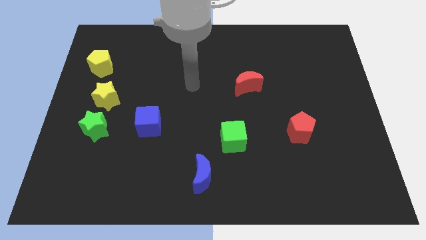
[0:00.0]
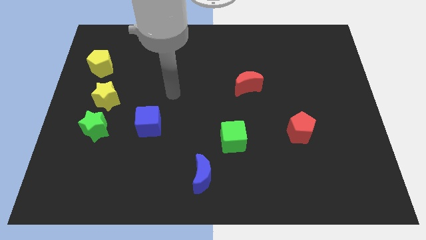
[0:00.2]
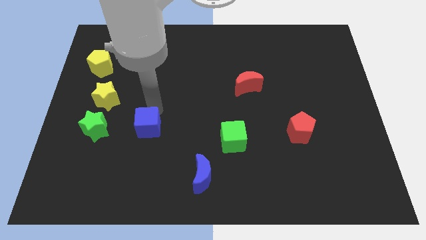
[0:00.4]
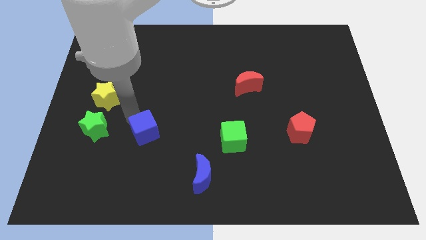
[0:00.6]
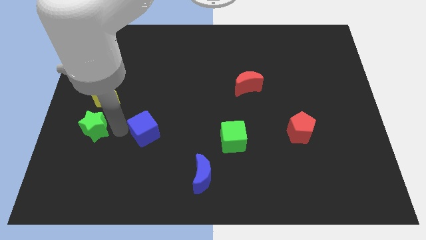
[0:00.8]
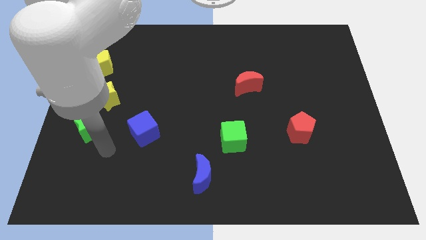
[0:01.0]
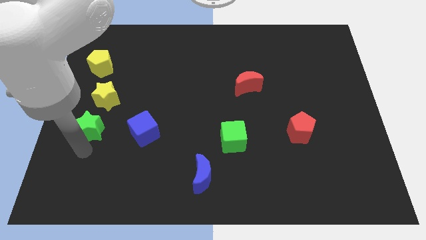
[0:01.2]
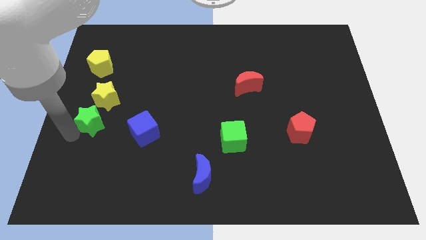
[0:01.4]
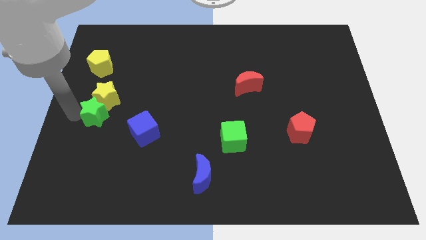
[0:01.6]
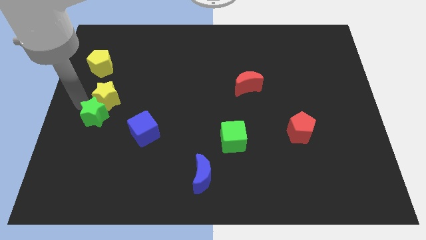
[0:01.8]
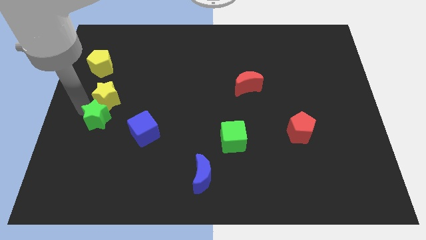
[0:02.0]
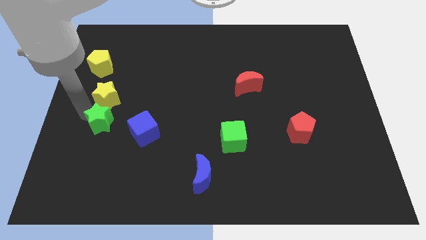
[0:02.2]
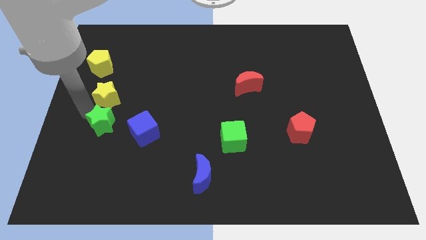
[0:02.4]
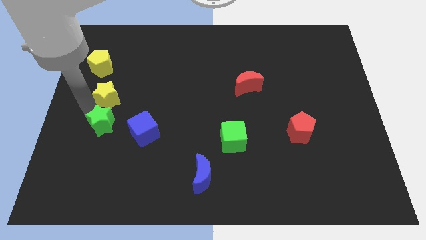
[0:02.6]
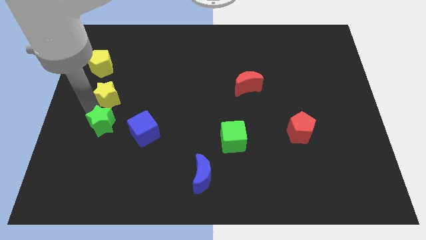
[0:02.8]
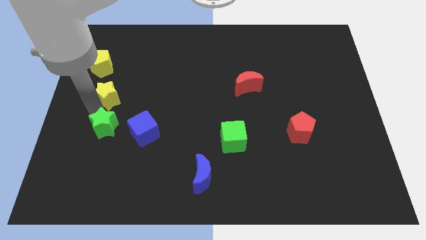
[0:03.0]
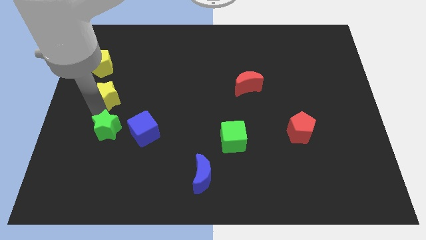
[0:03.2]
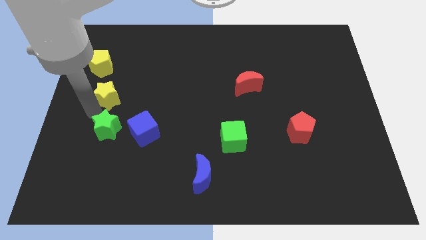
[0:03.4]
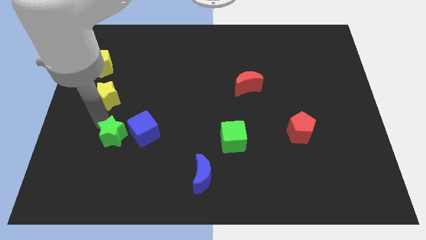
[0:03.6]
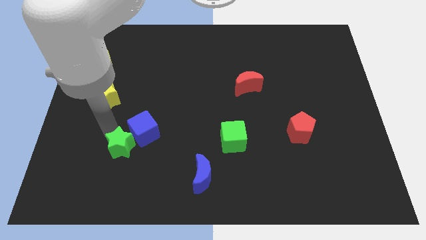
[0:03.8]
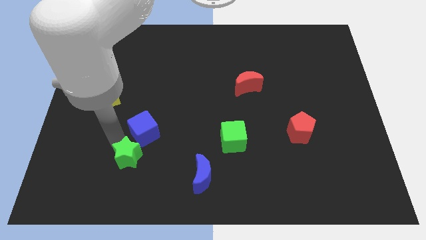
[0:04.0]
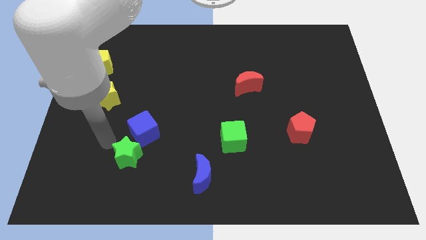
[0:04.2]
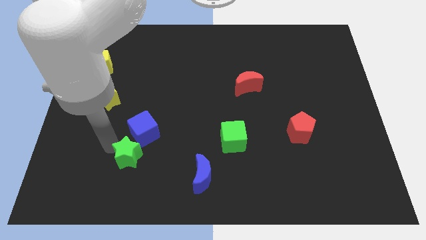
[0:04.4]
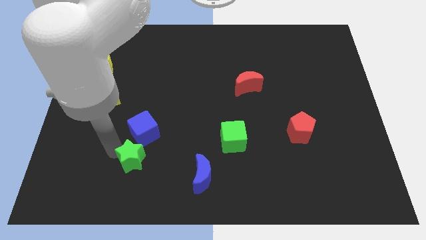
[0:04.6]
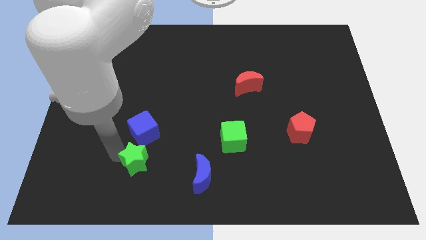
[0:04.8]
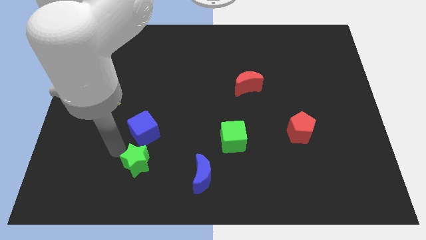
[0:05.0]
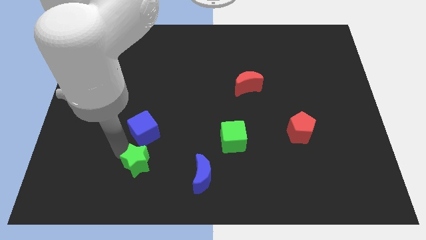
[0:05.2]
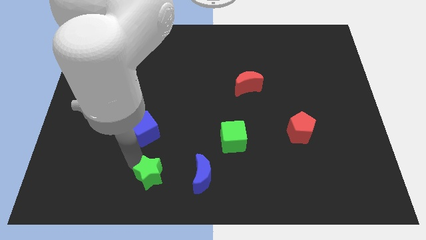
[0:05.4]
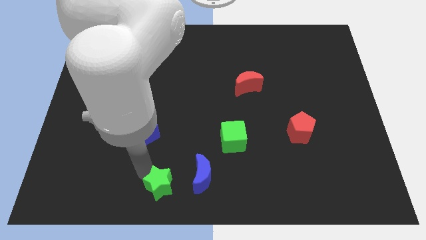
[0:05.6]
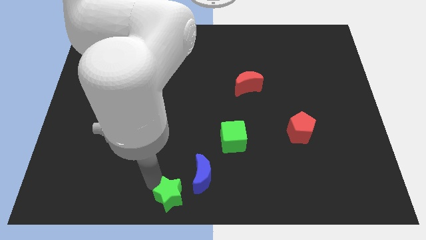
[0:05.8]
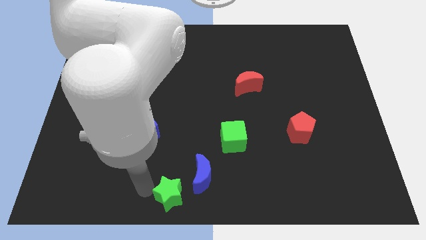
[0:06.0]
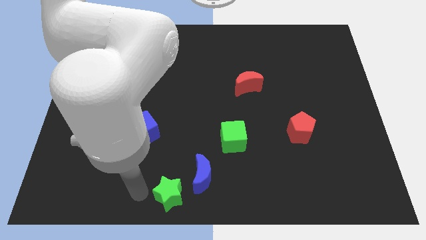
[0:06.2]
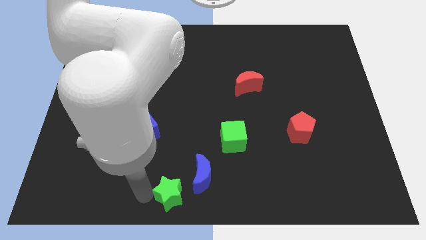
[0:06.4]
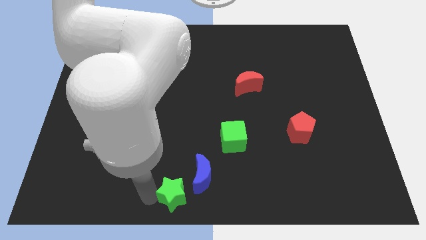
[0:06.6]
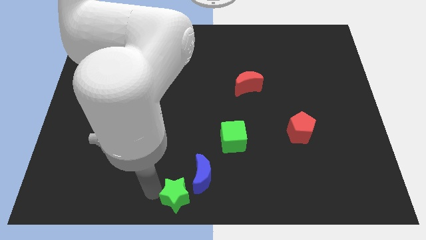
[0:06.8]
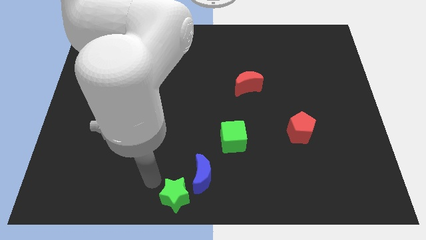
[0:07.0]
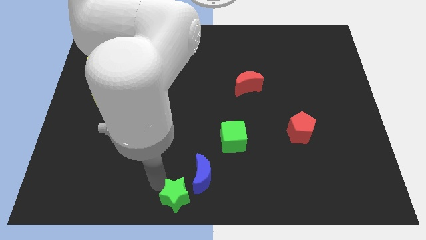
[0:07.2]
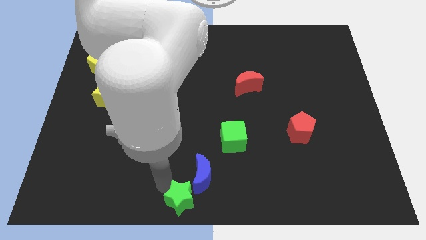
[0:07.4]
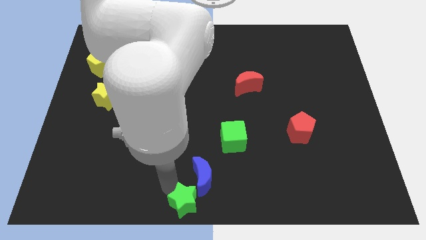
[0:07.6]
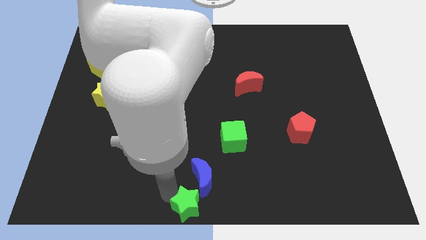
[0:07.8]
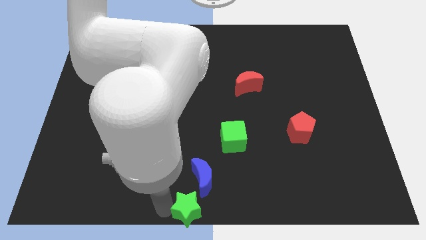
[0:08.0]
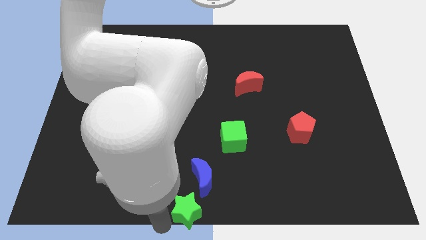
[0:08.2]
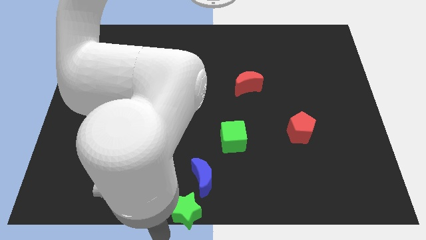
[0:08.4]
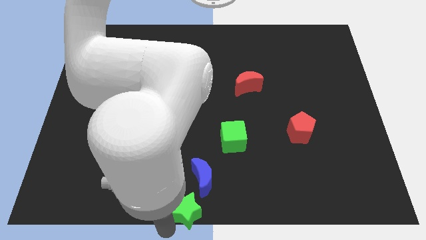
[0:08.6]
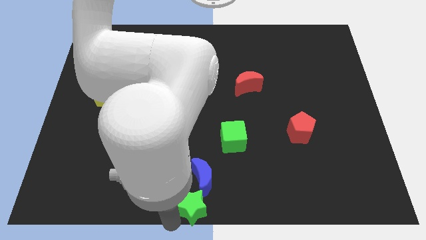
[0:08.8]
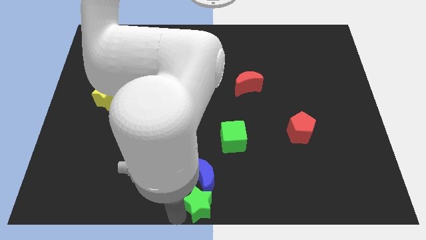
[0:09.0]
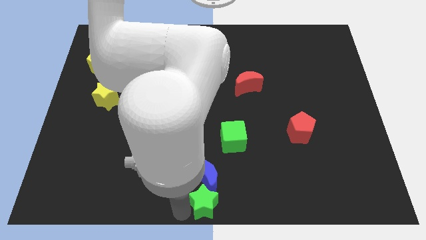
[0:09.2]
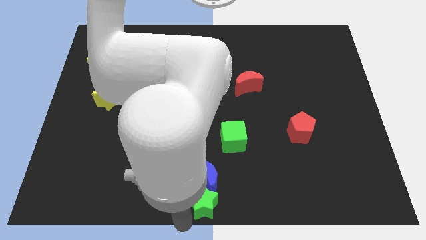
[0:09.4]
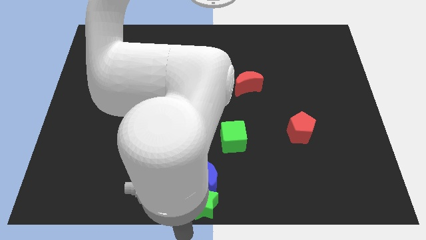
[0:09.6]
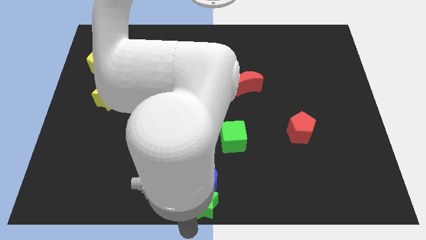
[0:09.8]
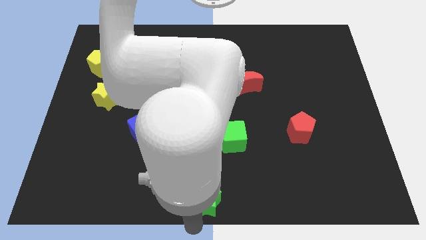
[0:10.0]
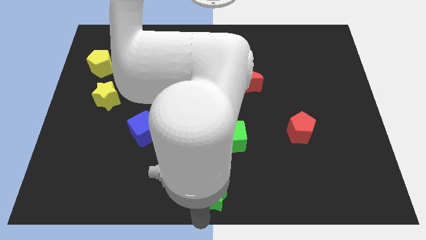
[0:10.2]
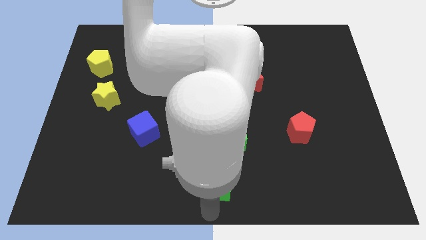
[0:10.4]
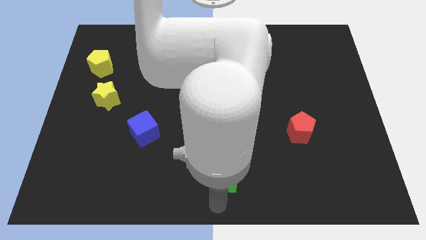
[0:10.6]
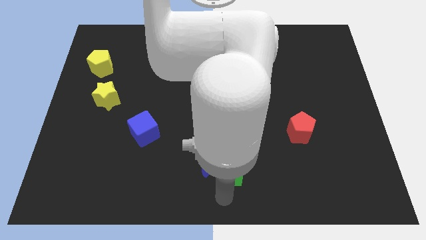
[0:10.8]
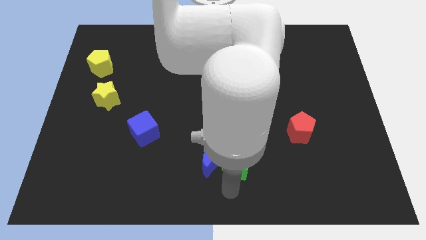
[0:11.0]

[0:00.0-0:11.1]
move the green star diagonally up and to the right of the blue moon

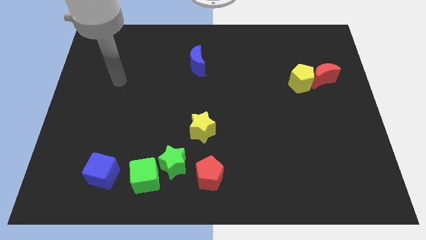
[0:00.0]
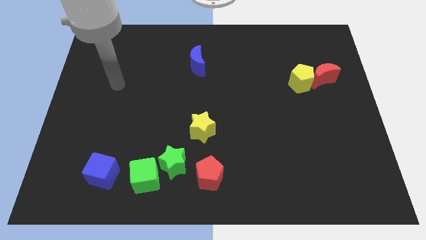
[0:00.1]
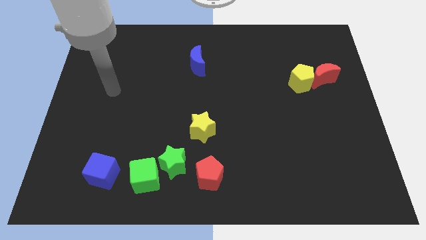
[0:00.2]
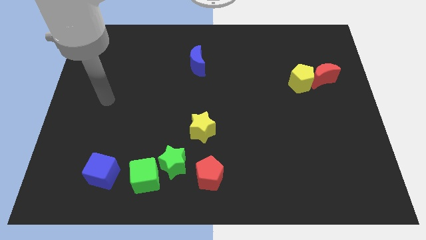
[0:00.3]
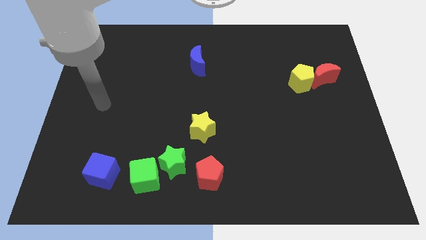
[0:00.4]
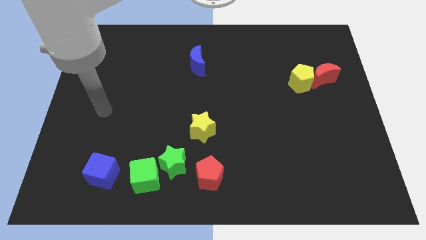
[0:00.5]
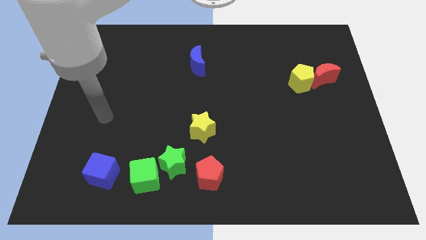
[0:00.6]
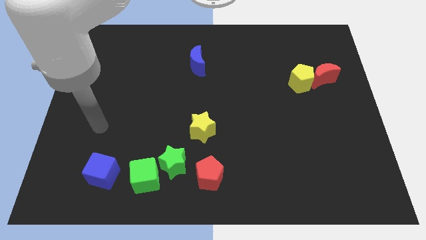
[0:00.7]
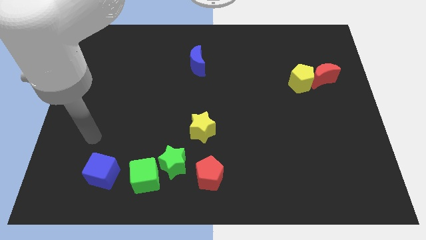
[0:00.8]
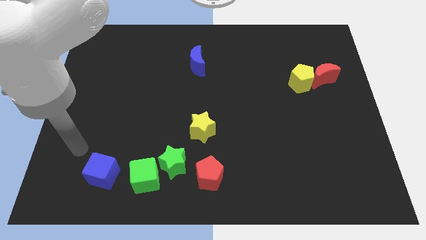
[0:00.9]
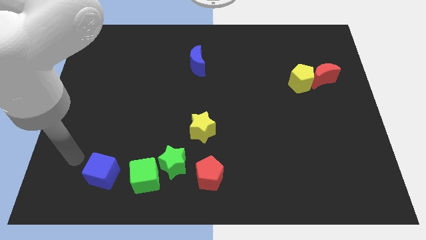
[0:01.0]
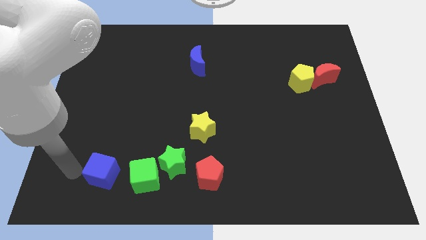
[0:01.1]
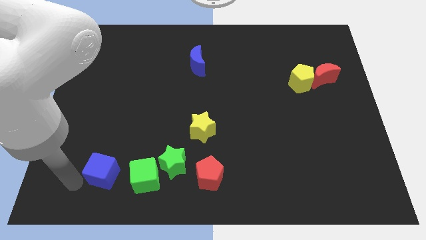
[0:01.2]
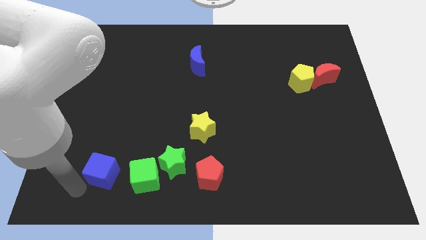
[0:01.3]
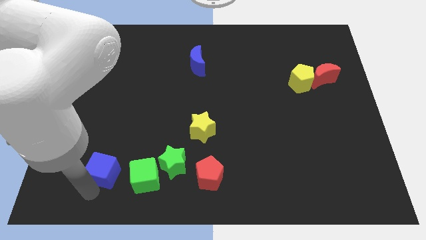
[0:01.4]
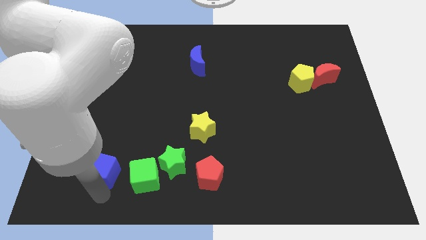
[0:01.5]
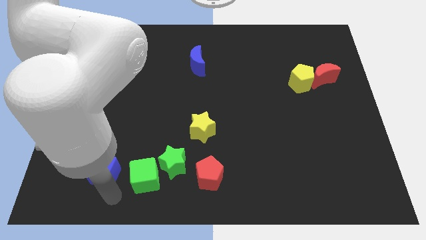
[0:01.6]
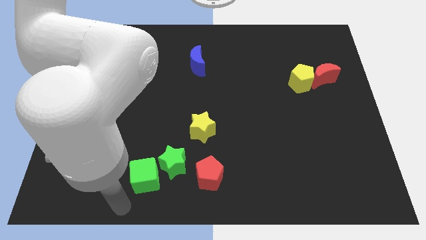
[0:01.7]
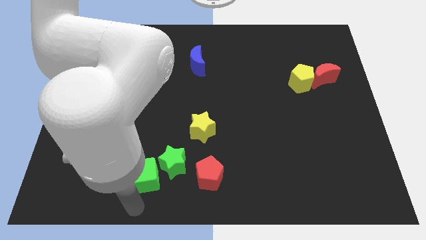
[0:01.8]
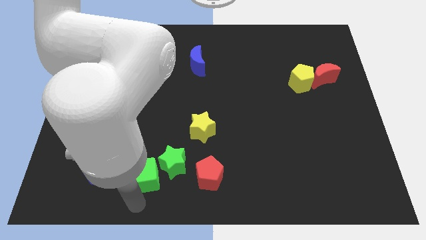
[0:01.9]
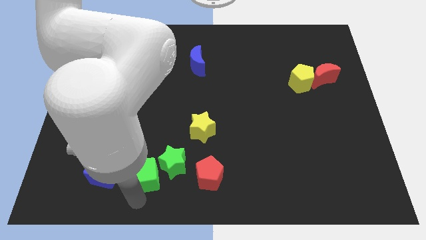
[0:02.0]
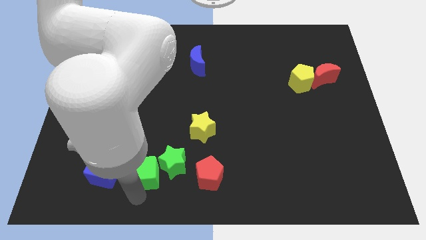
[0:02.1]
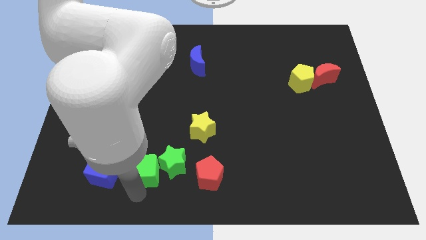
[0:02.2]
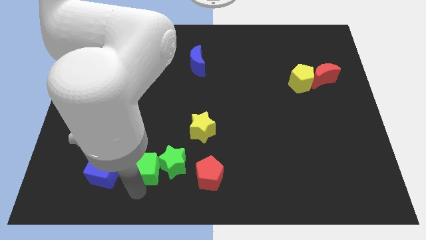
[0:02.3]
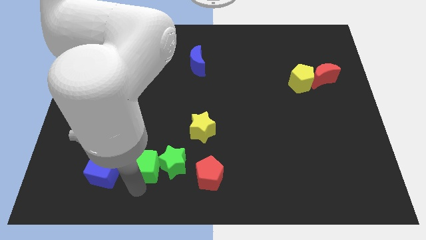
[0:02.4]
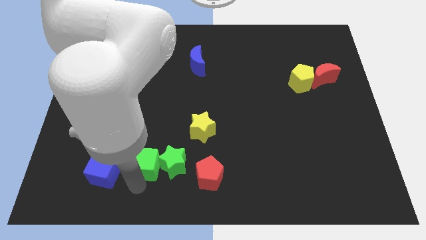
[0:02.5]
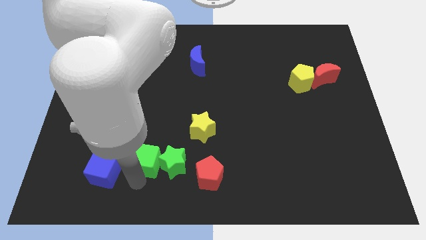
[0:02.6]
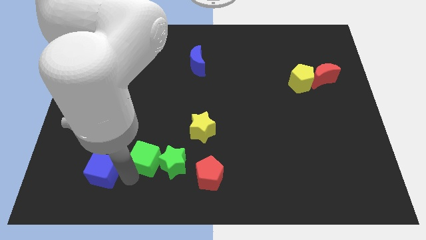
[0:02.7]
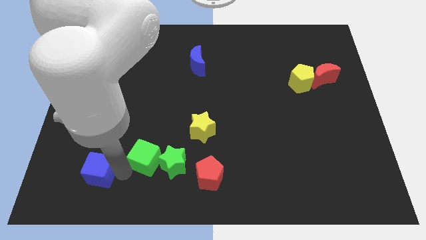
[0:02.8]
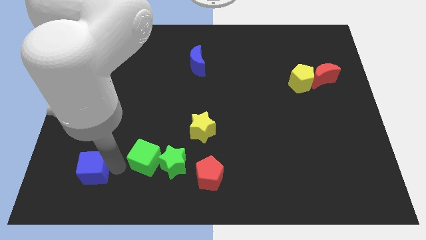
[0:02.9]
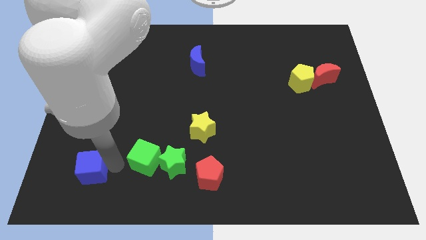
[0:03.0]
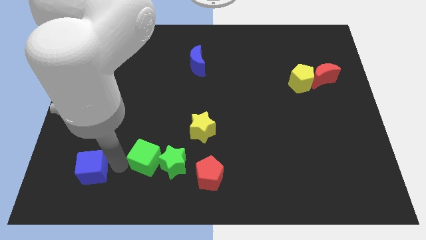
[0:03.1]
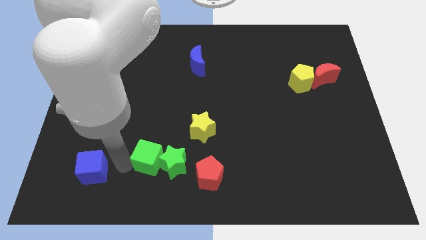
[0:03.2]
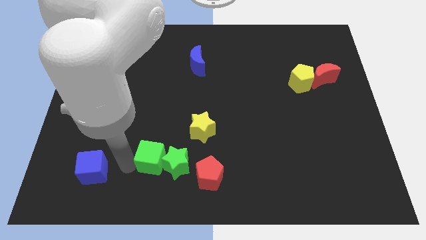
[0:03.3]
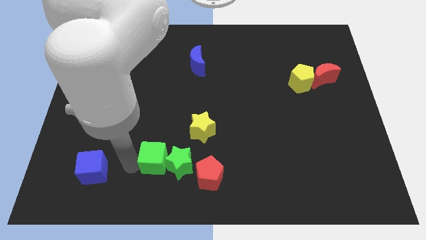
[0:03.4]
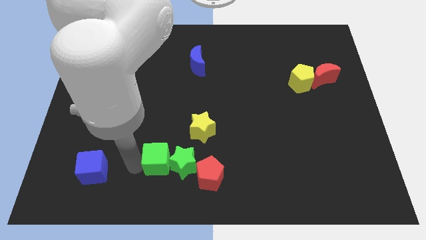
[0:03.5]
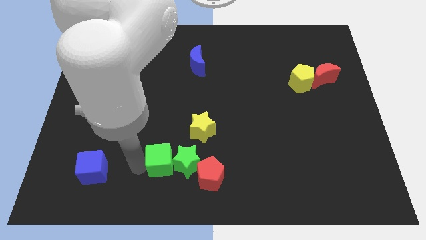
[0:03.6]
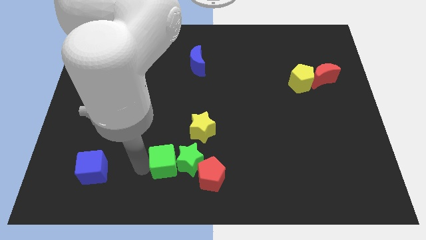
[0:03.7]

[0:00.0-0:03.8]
put the green cube to the top left of the red pentagon
